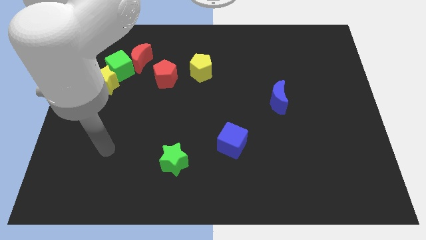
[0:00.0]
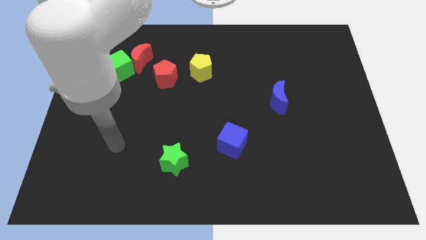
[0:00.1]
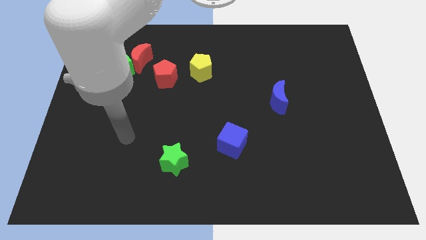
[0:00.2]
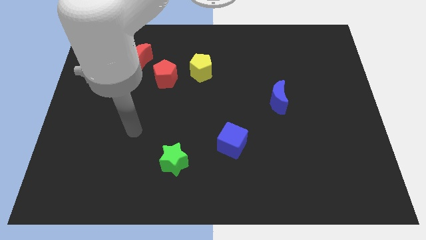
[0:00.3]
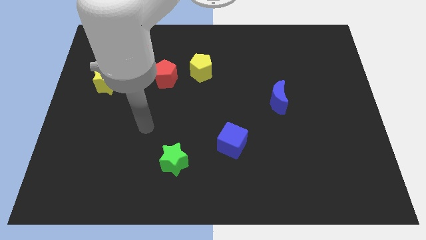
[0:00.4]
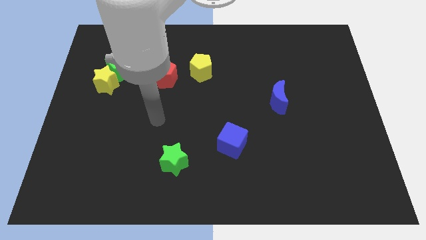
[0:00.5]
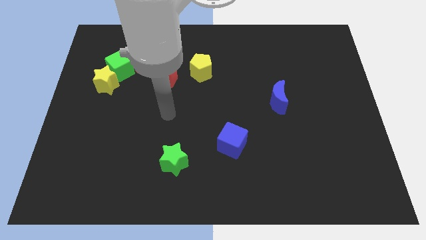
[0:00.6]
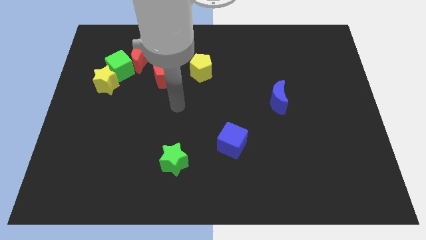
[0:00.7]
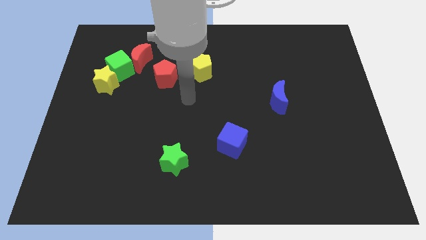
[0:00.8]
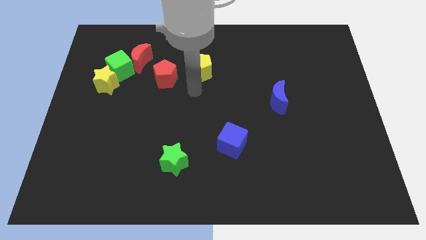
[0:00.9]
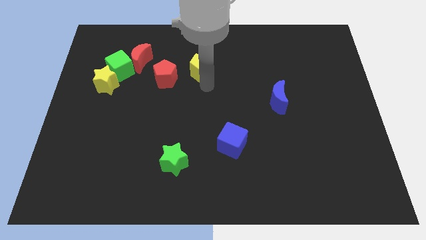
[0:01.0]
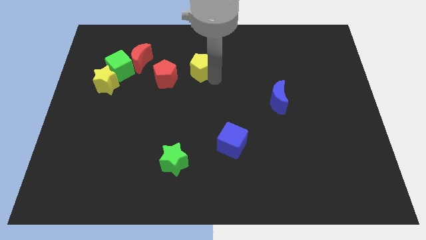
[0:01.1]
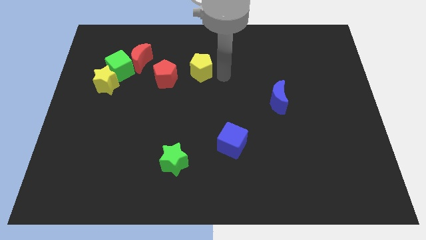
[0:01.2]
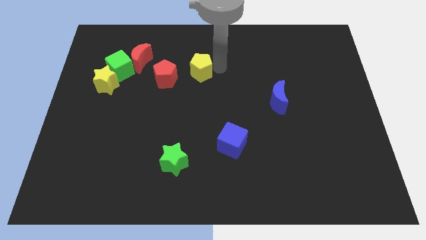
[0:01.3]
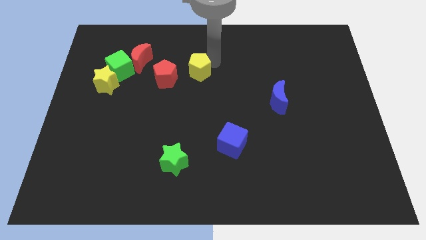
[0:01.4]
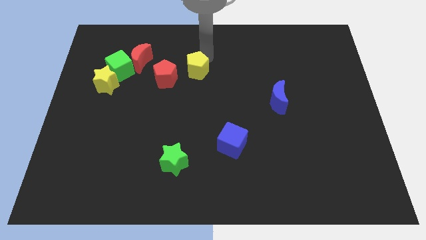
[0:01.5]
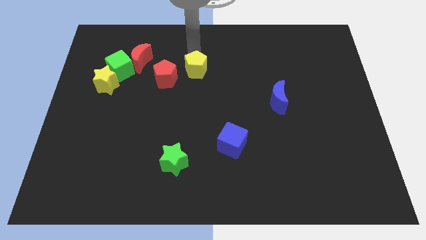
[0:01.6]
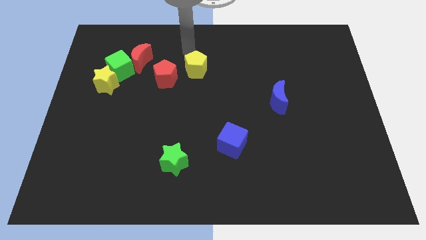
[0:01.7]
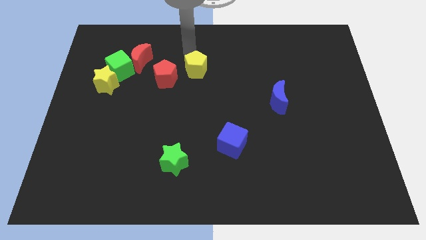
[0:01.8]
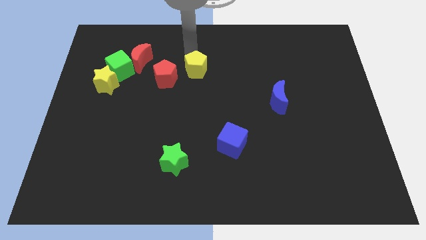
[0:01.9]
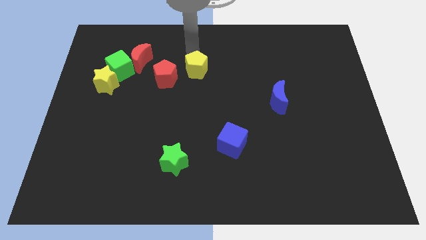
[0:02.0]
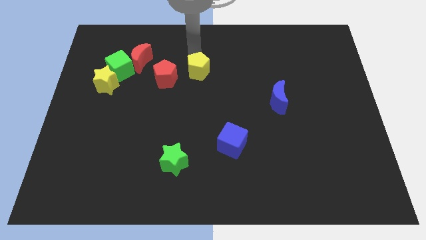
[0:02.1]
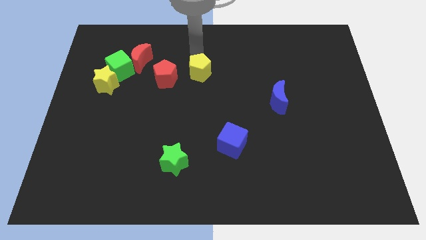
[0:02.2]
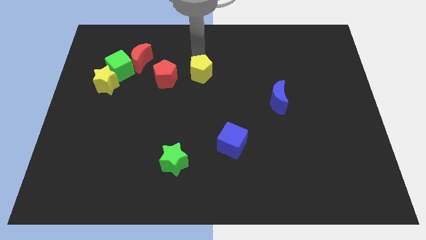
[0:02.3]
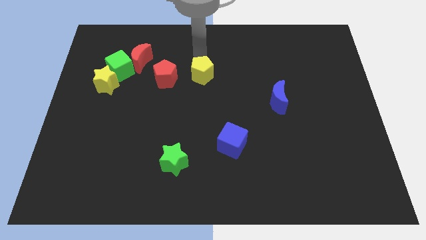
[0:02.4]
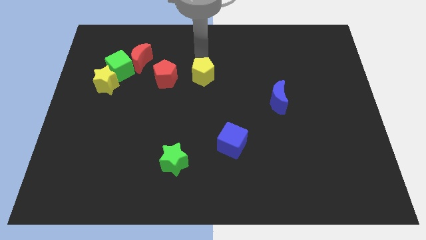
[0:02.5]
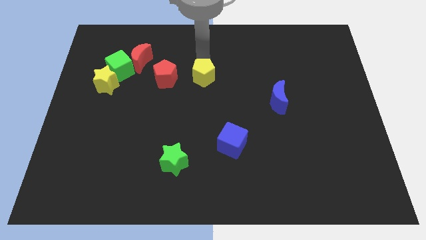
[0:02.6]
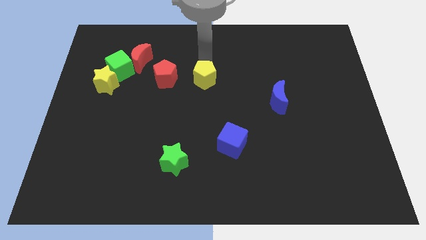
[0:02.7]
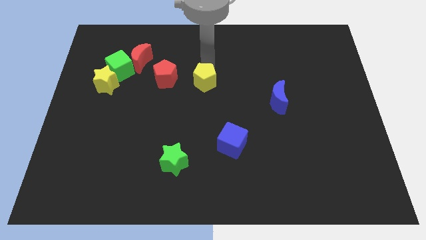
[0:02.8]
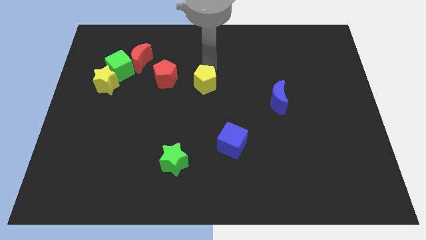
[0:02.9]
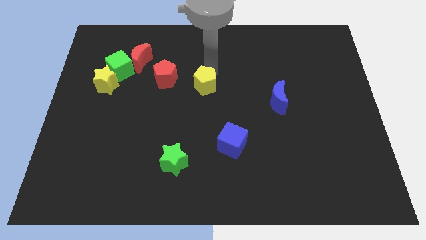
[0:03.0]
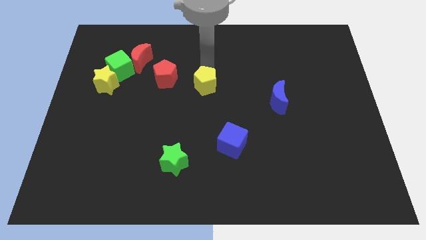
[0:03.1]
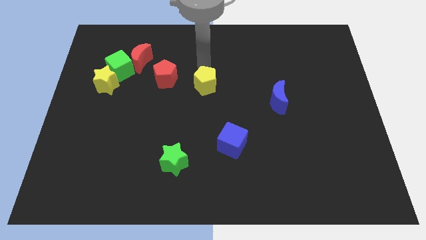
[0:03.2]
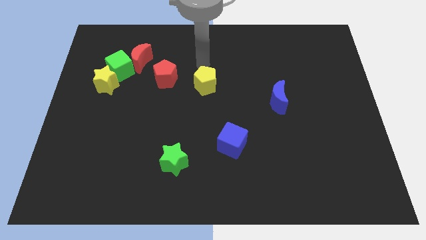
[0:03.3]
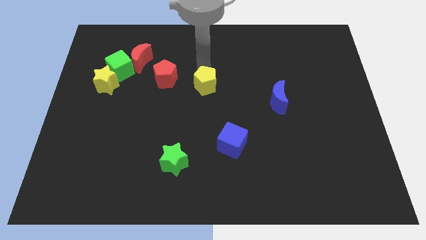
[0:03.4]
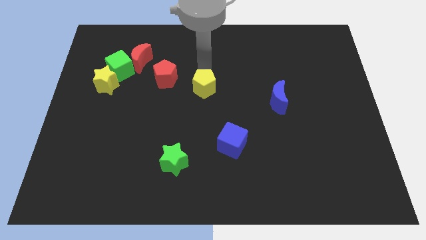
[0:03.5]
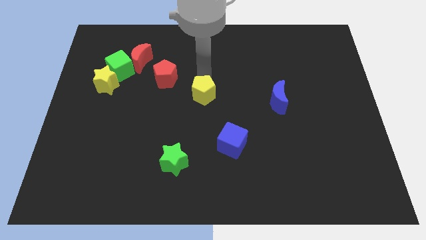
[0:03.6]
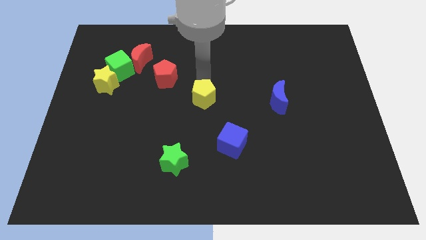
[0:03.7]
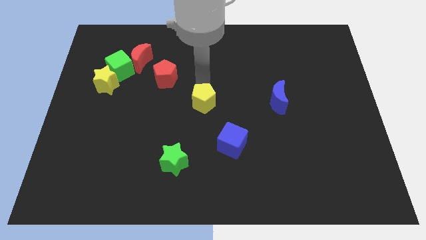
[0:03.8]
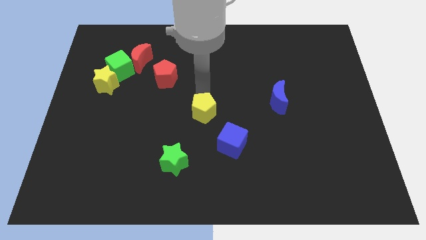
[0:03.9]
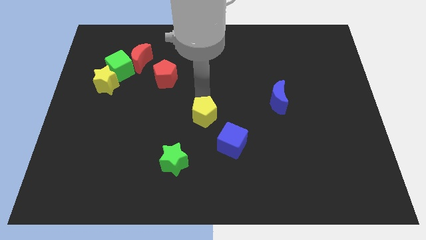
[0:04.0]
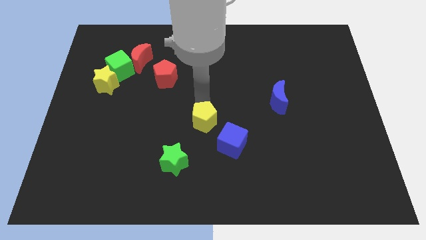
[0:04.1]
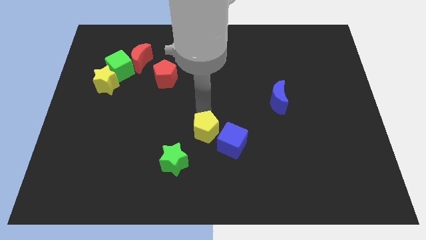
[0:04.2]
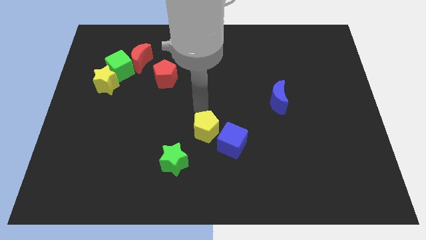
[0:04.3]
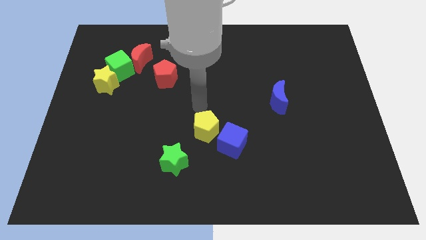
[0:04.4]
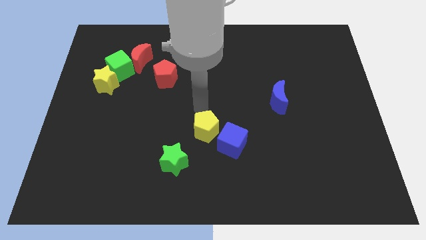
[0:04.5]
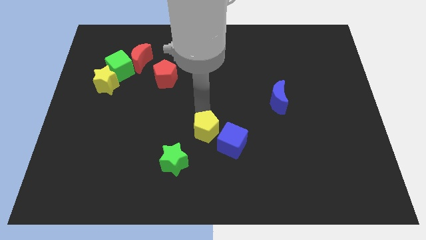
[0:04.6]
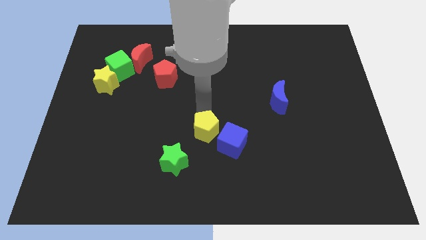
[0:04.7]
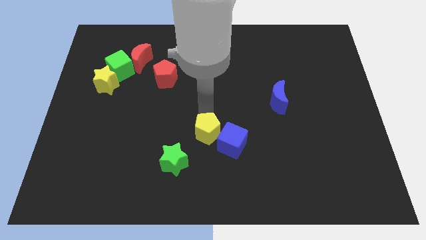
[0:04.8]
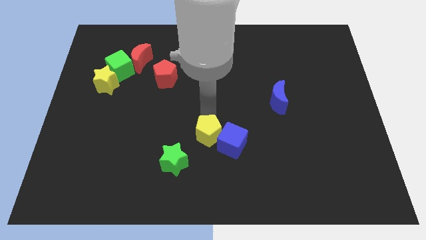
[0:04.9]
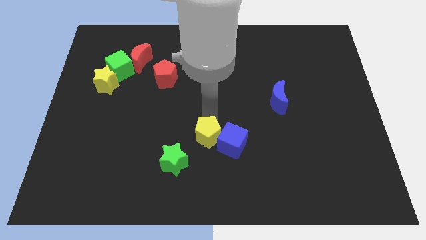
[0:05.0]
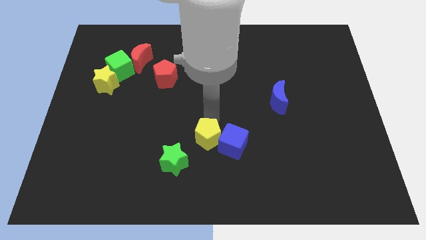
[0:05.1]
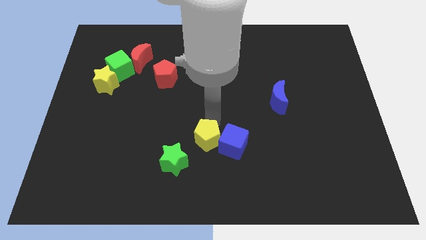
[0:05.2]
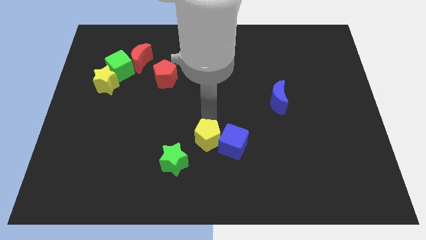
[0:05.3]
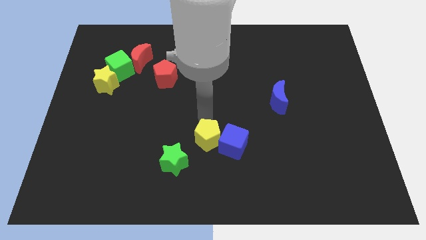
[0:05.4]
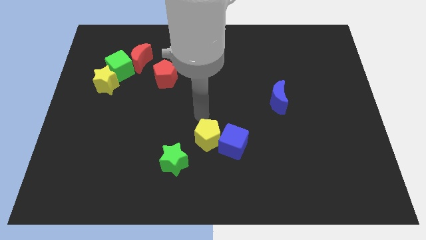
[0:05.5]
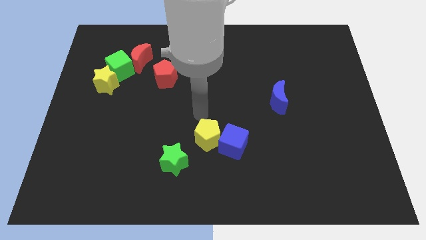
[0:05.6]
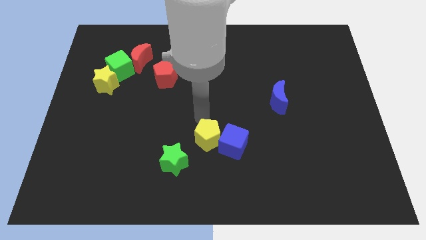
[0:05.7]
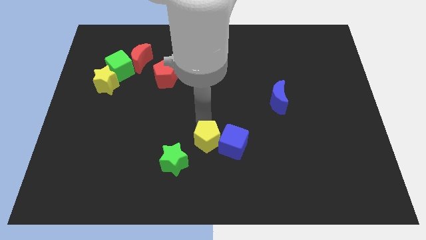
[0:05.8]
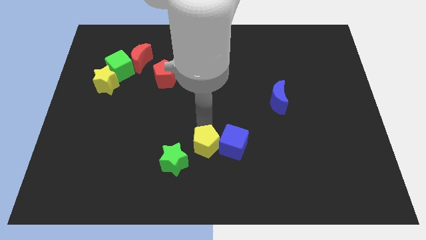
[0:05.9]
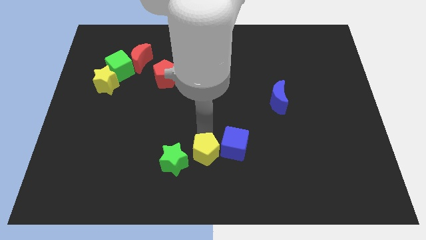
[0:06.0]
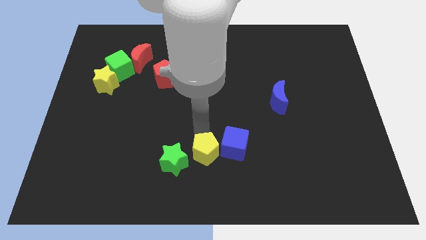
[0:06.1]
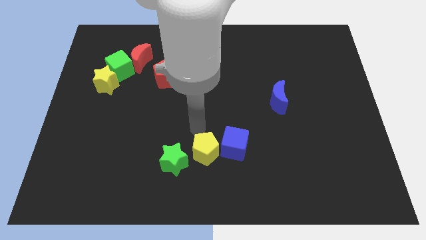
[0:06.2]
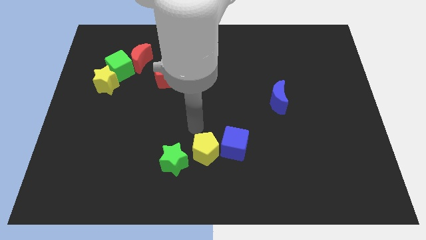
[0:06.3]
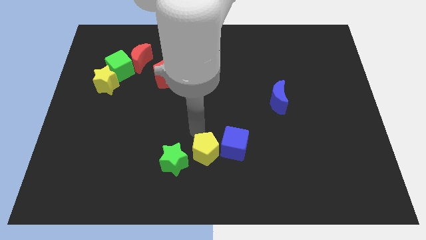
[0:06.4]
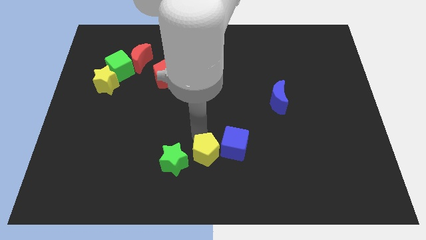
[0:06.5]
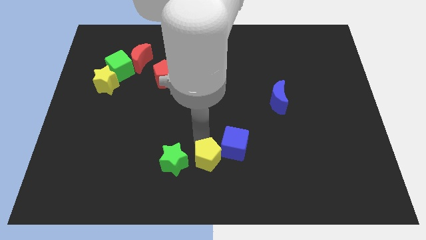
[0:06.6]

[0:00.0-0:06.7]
slide the yellow pentagon to the bottom side
